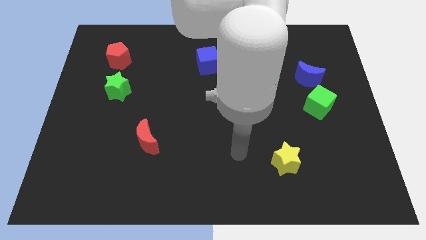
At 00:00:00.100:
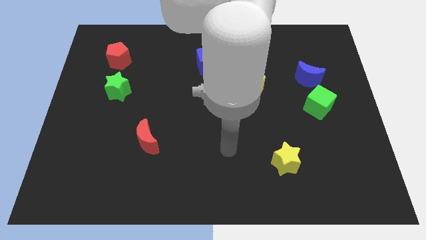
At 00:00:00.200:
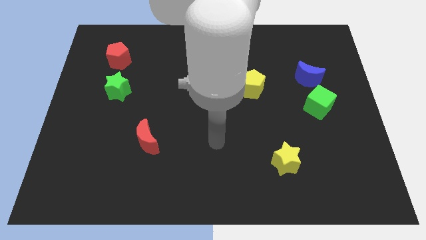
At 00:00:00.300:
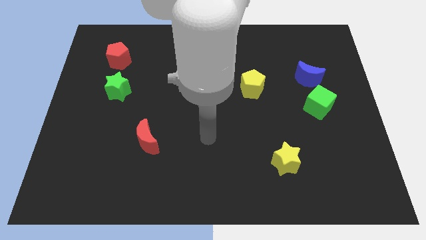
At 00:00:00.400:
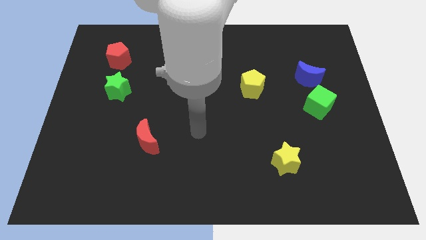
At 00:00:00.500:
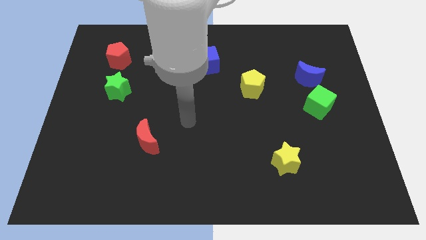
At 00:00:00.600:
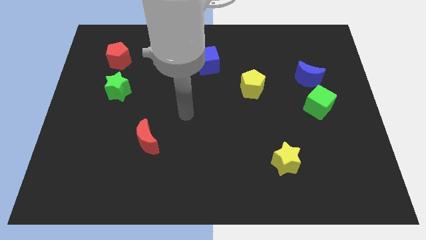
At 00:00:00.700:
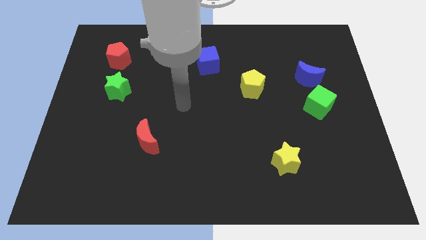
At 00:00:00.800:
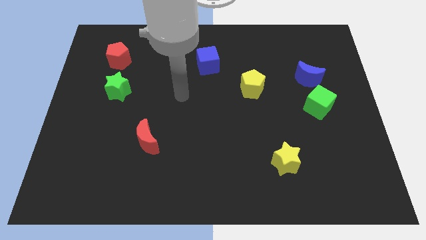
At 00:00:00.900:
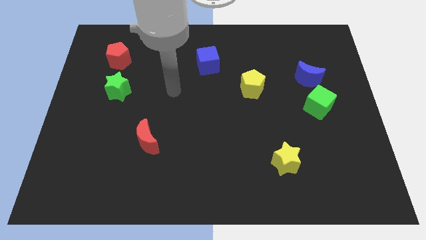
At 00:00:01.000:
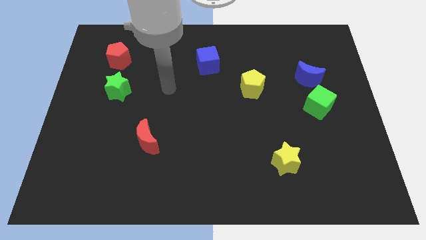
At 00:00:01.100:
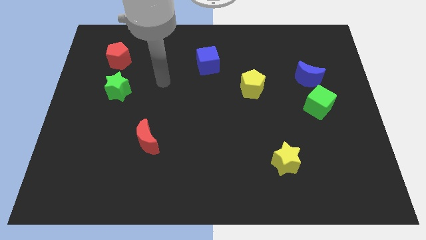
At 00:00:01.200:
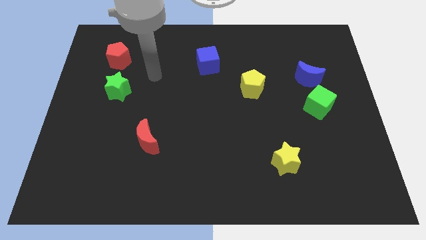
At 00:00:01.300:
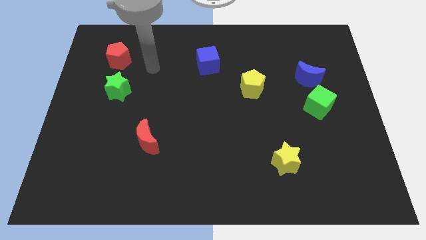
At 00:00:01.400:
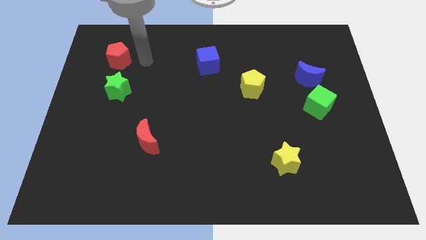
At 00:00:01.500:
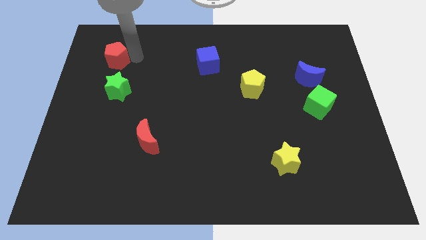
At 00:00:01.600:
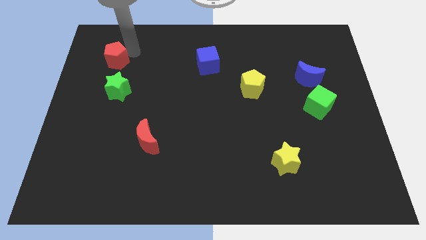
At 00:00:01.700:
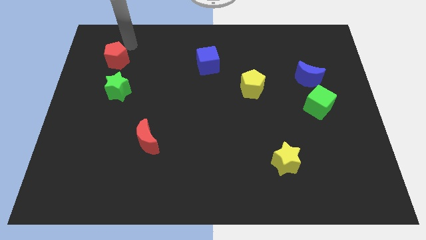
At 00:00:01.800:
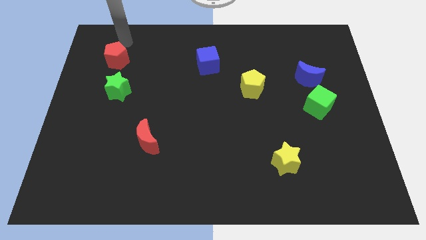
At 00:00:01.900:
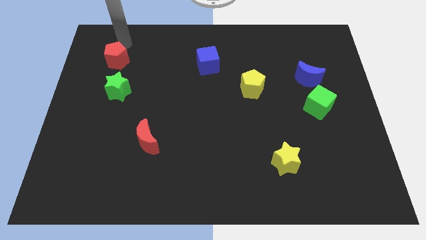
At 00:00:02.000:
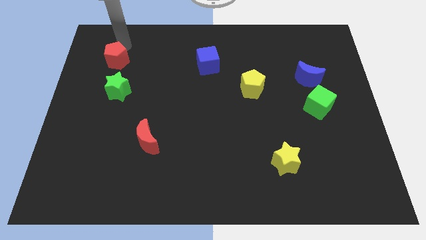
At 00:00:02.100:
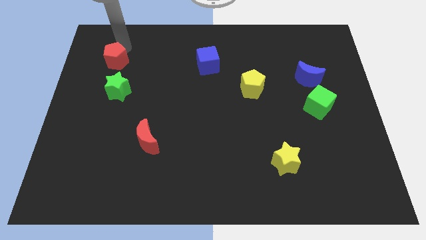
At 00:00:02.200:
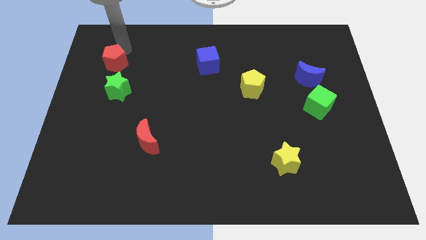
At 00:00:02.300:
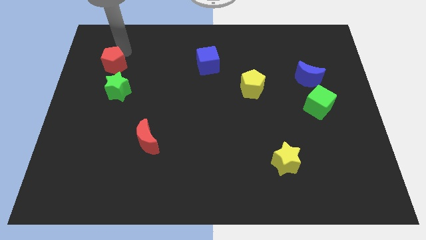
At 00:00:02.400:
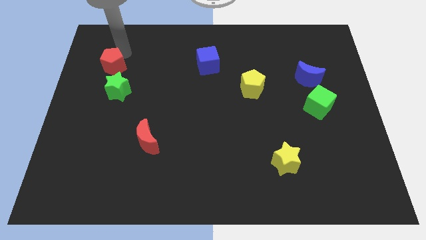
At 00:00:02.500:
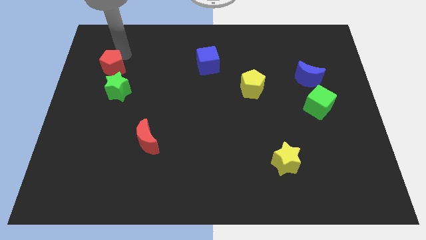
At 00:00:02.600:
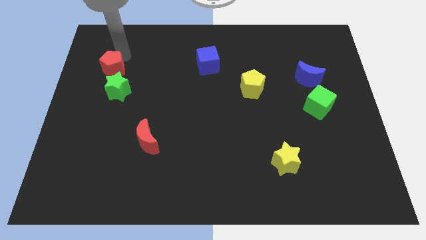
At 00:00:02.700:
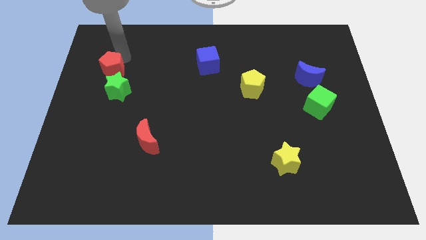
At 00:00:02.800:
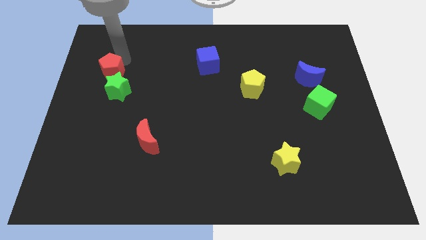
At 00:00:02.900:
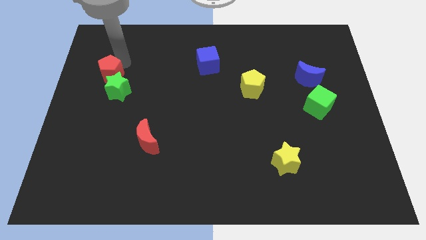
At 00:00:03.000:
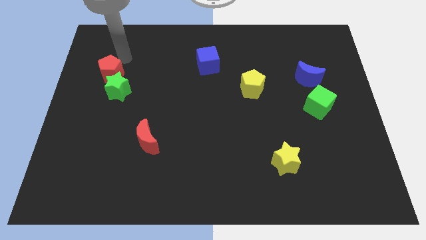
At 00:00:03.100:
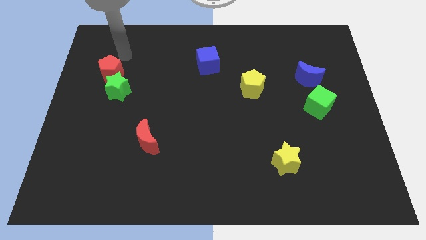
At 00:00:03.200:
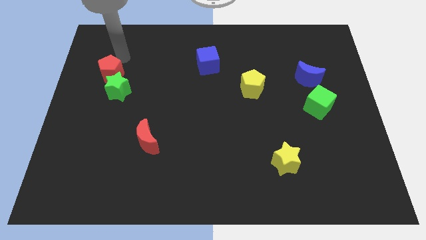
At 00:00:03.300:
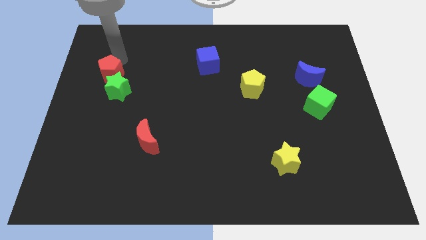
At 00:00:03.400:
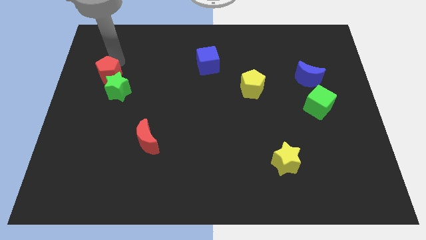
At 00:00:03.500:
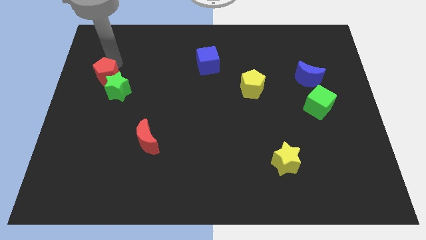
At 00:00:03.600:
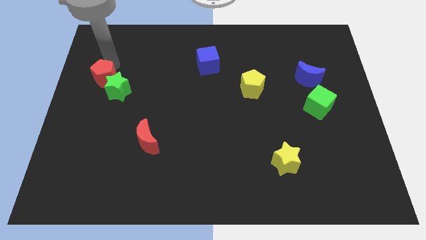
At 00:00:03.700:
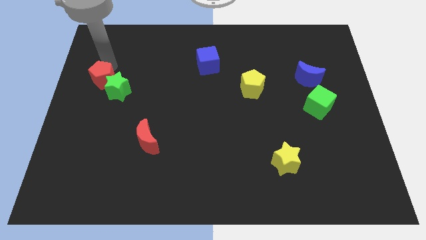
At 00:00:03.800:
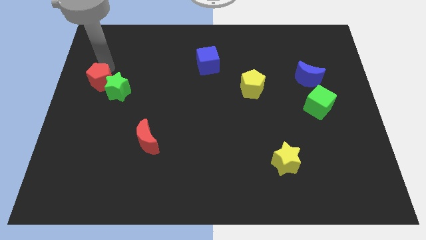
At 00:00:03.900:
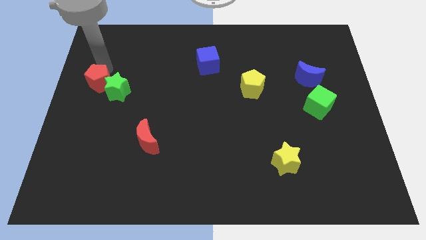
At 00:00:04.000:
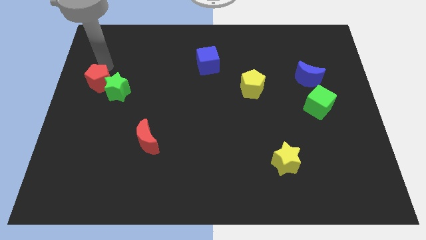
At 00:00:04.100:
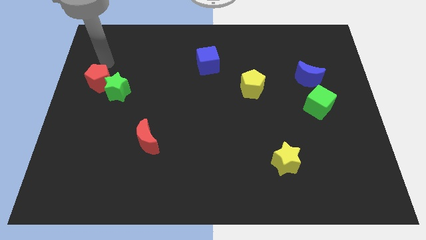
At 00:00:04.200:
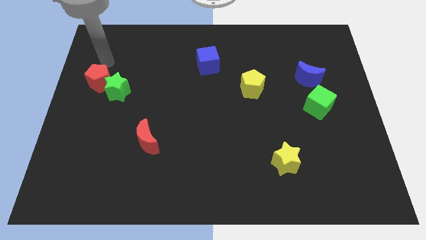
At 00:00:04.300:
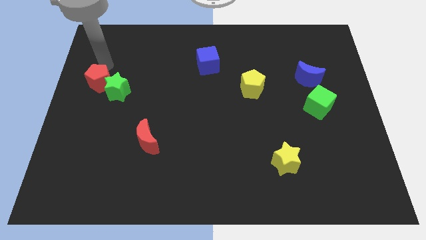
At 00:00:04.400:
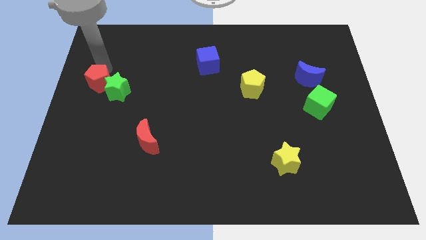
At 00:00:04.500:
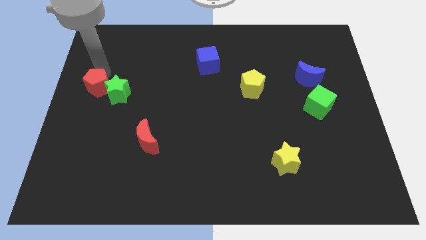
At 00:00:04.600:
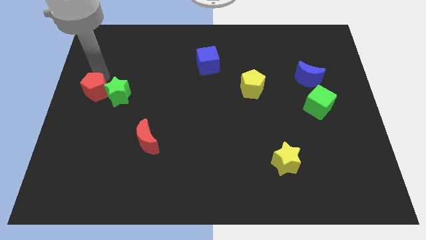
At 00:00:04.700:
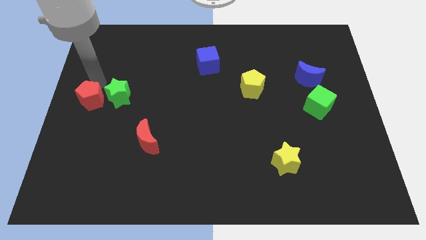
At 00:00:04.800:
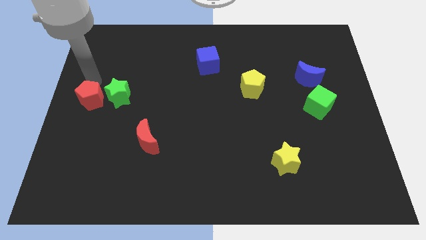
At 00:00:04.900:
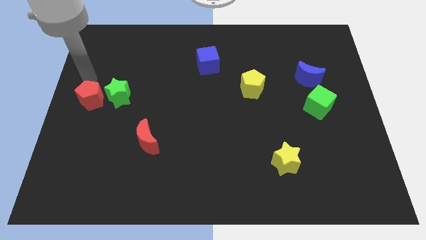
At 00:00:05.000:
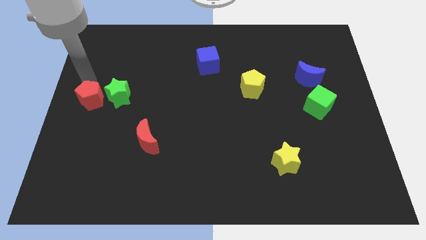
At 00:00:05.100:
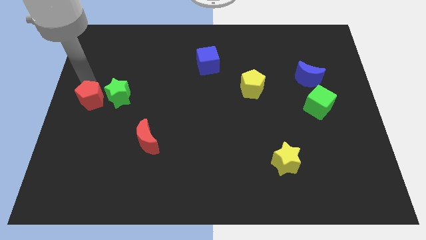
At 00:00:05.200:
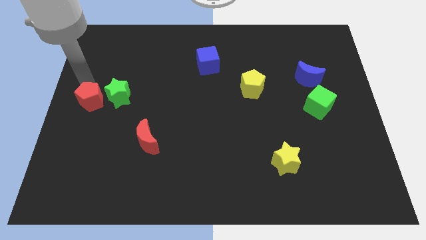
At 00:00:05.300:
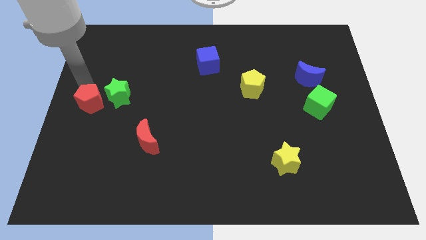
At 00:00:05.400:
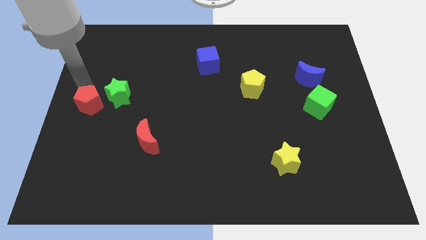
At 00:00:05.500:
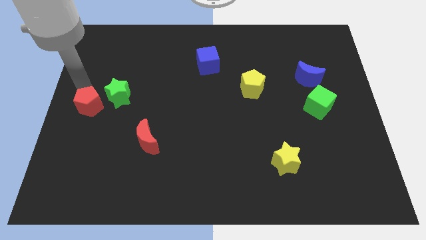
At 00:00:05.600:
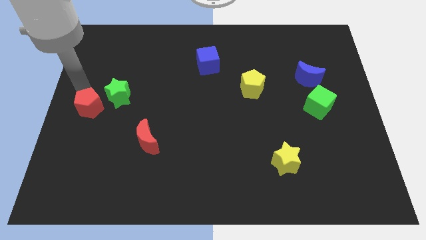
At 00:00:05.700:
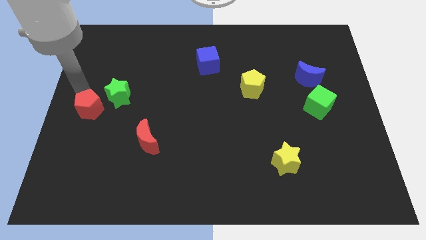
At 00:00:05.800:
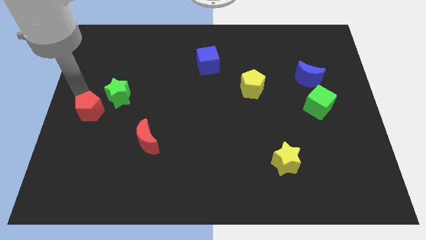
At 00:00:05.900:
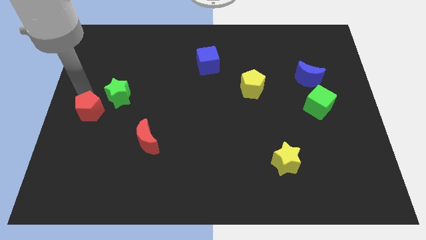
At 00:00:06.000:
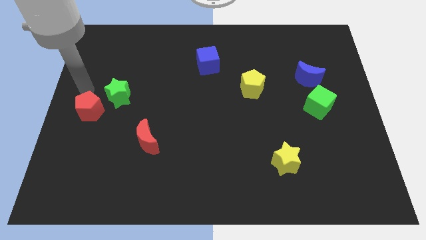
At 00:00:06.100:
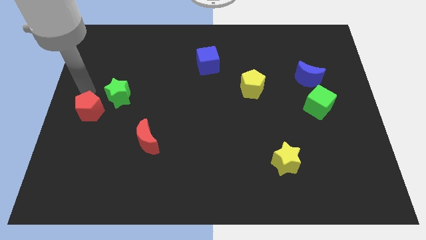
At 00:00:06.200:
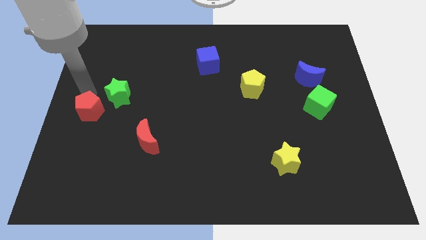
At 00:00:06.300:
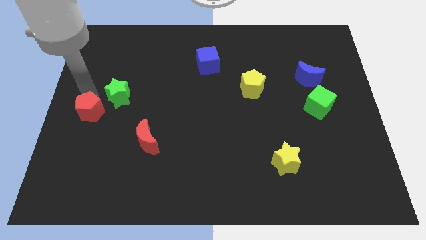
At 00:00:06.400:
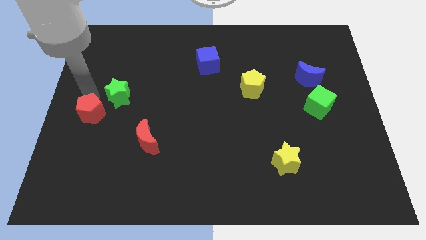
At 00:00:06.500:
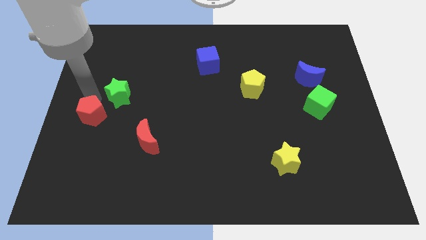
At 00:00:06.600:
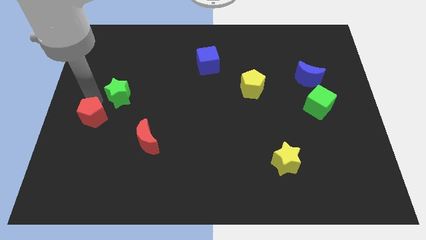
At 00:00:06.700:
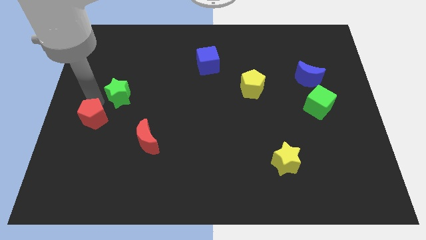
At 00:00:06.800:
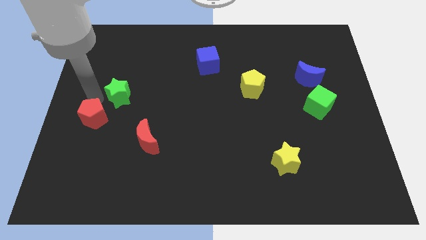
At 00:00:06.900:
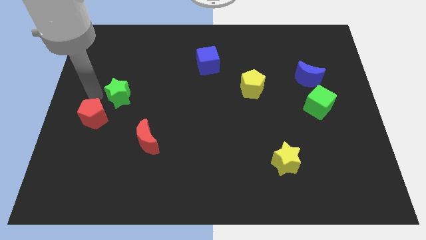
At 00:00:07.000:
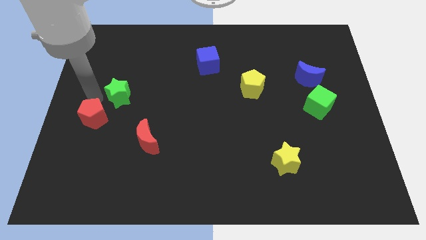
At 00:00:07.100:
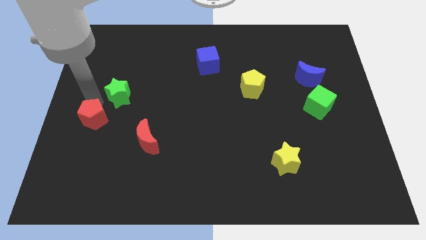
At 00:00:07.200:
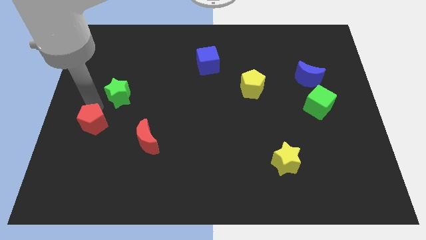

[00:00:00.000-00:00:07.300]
push the red pentagon downwards

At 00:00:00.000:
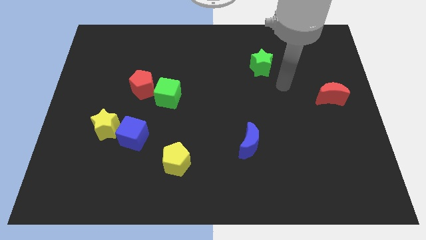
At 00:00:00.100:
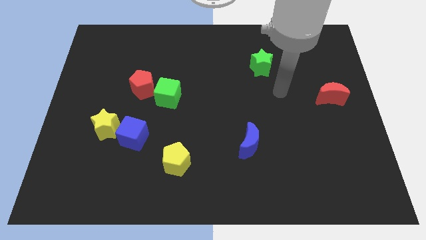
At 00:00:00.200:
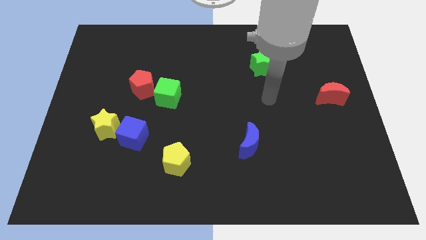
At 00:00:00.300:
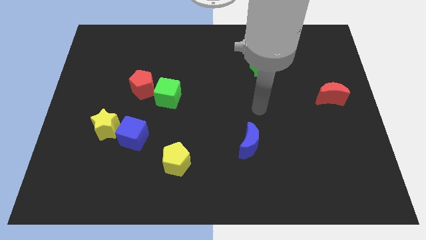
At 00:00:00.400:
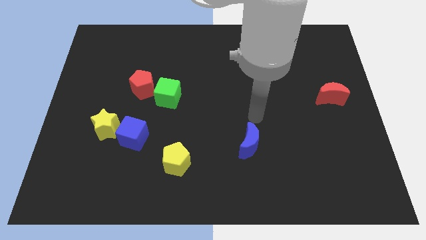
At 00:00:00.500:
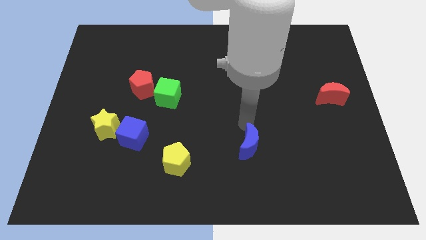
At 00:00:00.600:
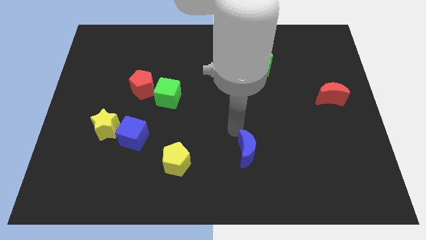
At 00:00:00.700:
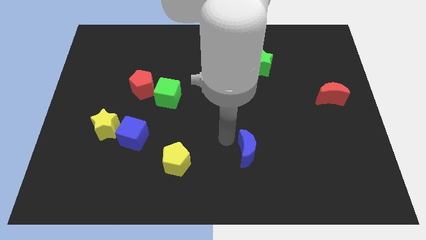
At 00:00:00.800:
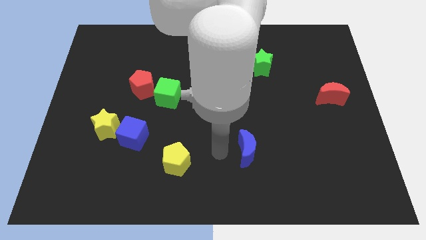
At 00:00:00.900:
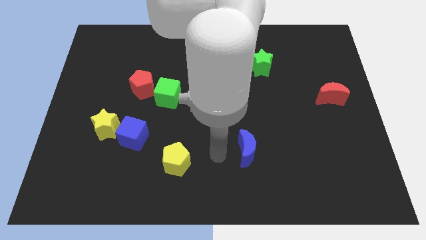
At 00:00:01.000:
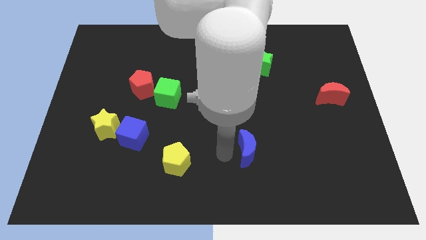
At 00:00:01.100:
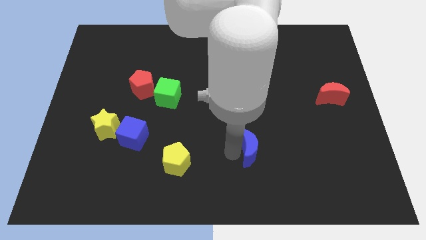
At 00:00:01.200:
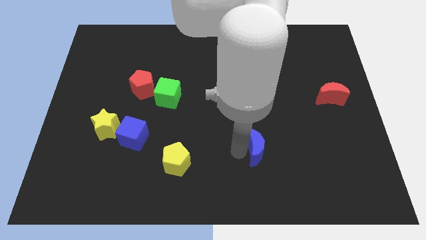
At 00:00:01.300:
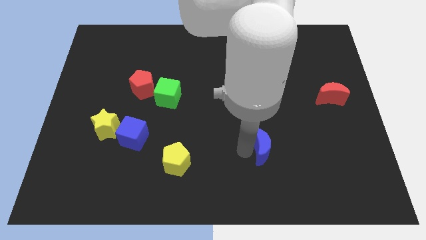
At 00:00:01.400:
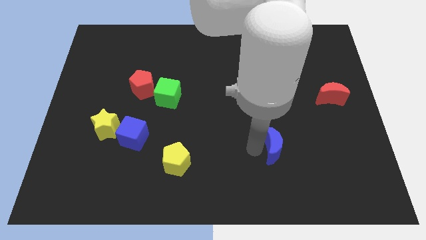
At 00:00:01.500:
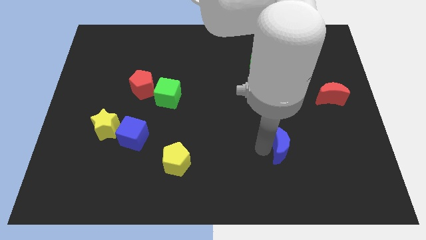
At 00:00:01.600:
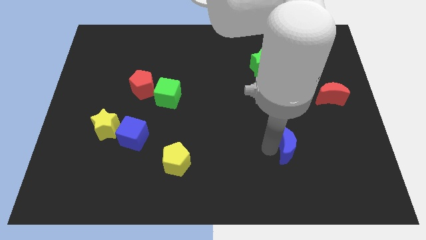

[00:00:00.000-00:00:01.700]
move the blue moon somewhat right
